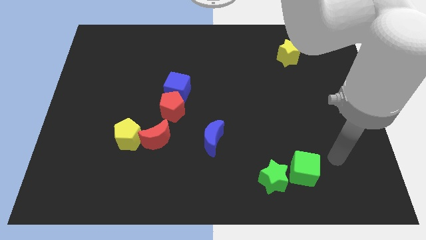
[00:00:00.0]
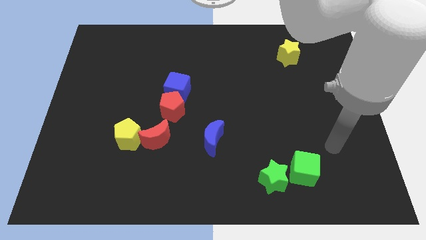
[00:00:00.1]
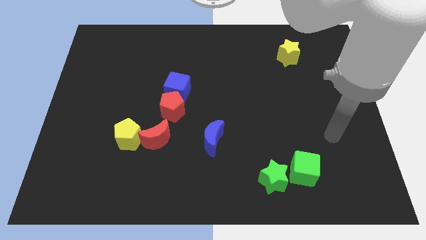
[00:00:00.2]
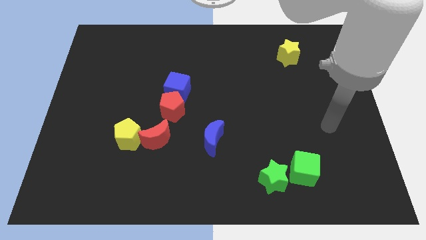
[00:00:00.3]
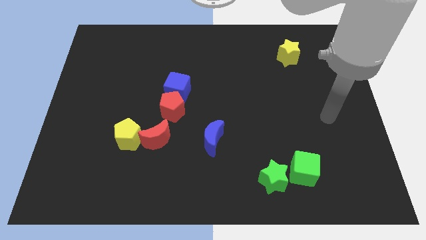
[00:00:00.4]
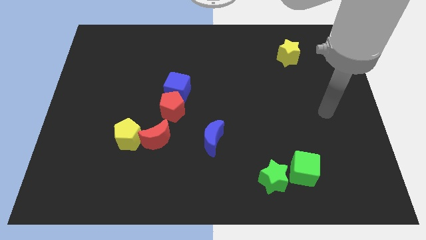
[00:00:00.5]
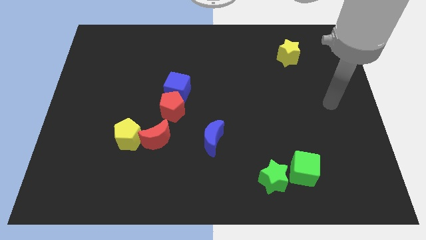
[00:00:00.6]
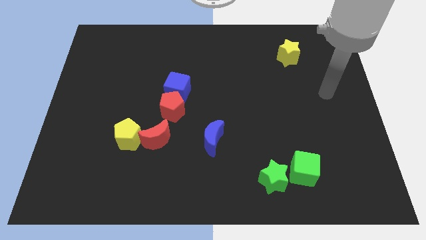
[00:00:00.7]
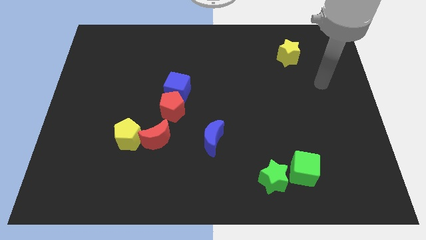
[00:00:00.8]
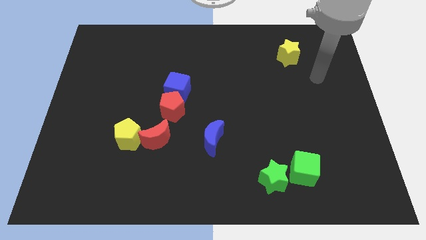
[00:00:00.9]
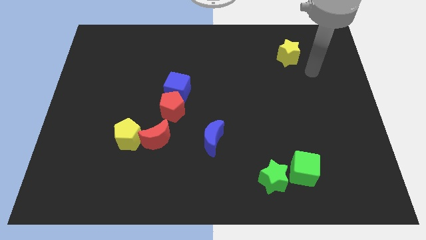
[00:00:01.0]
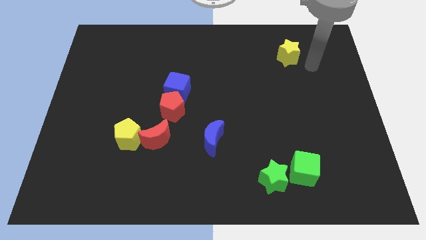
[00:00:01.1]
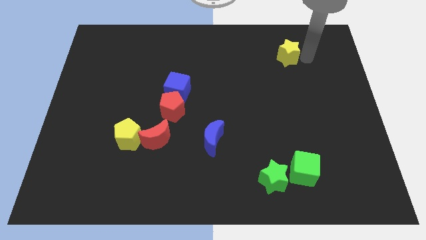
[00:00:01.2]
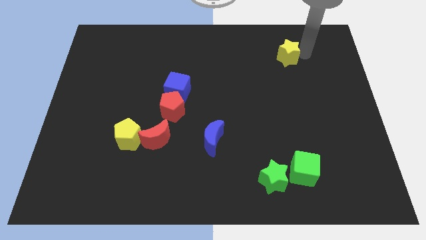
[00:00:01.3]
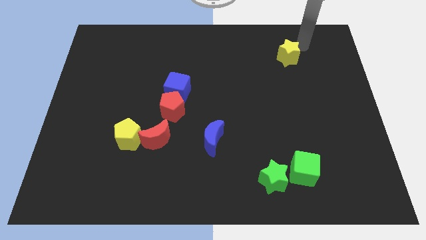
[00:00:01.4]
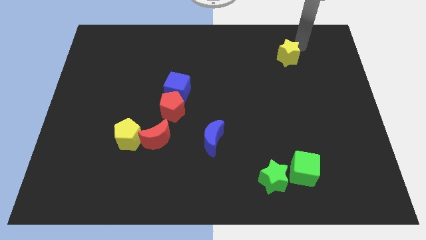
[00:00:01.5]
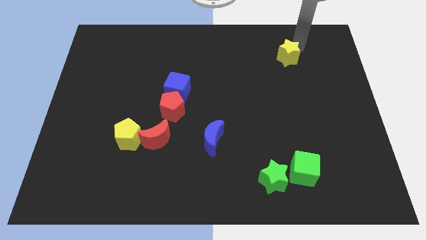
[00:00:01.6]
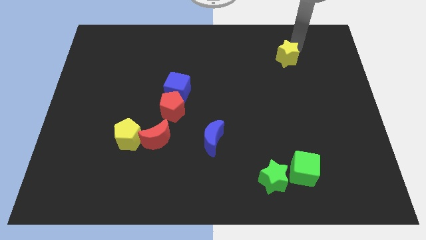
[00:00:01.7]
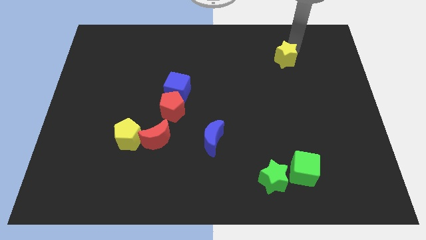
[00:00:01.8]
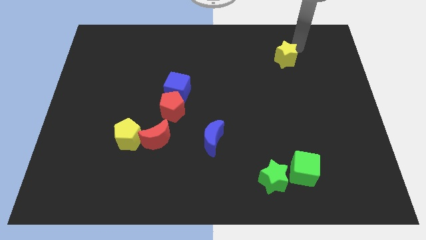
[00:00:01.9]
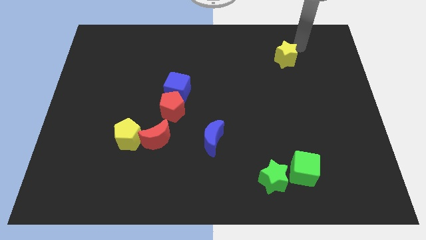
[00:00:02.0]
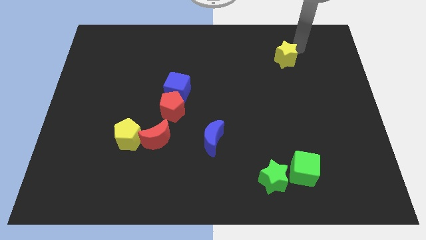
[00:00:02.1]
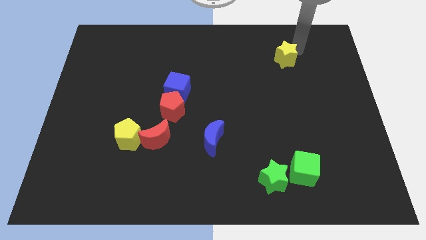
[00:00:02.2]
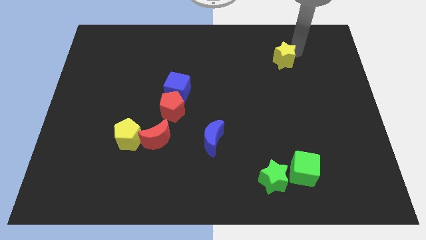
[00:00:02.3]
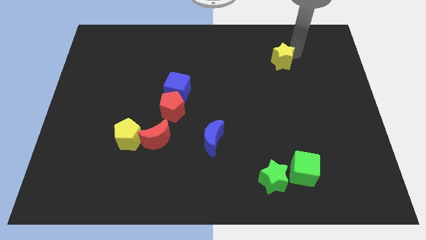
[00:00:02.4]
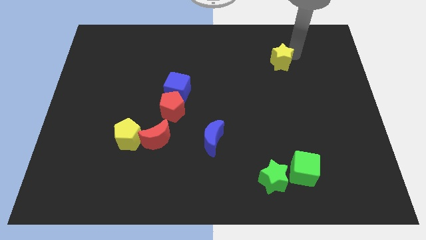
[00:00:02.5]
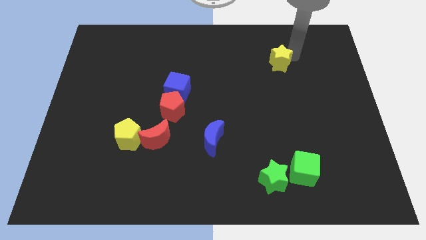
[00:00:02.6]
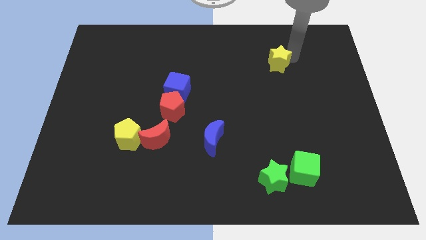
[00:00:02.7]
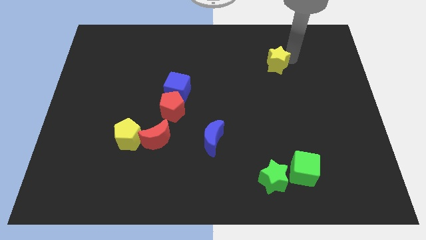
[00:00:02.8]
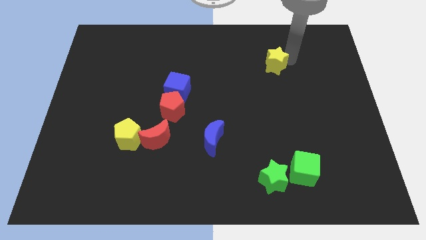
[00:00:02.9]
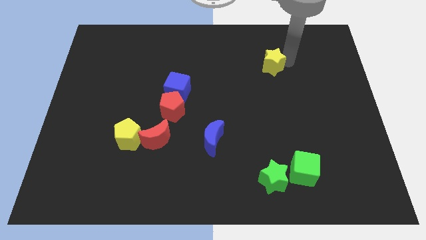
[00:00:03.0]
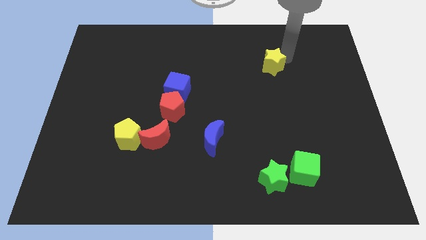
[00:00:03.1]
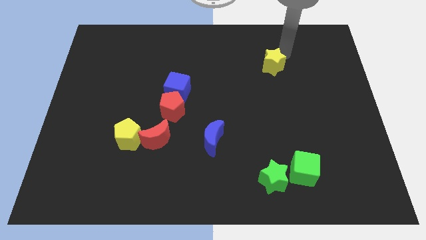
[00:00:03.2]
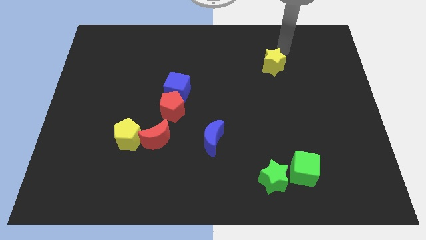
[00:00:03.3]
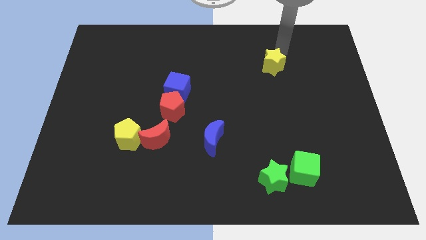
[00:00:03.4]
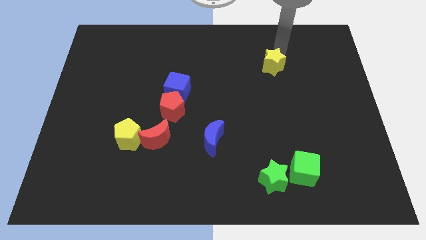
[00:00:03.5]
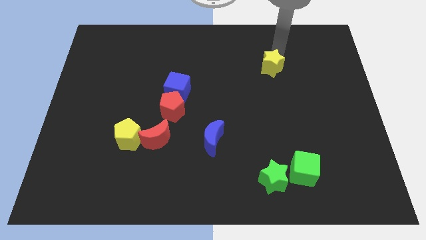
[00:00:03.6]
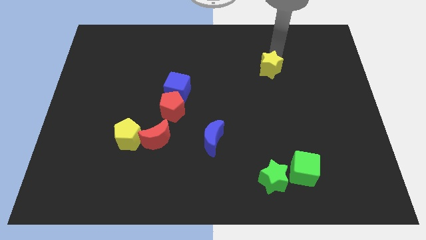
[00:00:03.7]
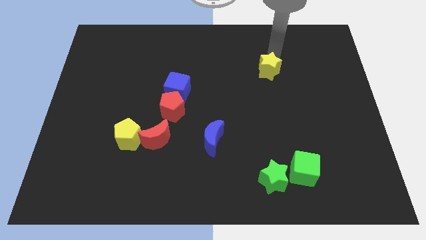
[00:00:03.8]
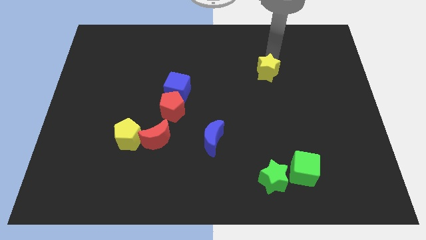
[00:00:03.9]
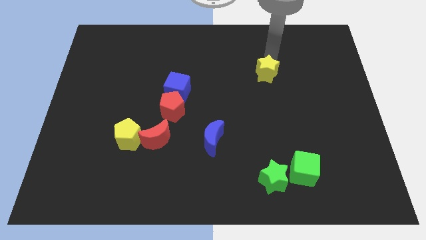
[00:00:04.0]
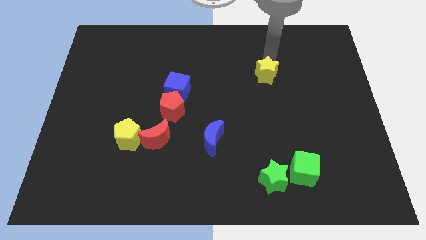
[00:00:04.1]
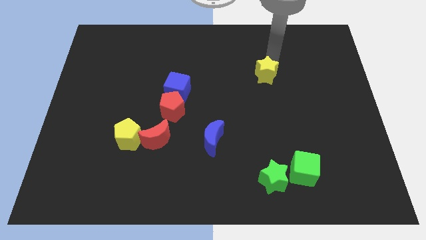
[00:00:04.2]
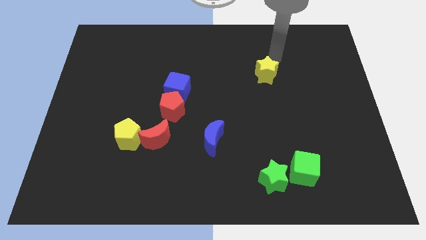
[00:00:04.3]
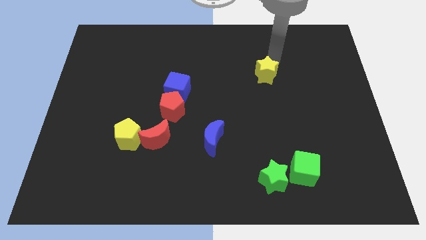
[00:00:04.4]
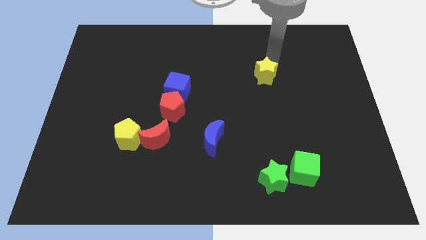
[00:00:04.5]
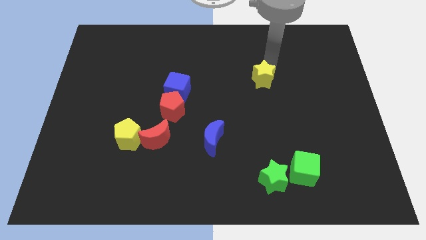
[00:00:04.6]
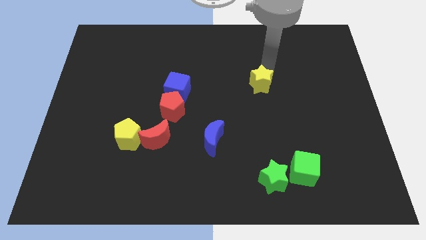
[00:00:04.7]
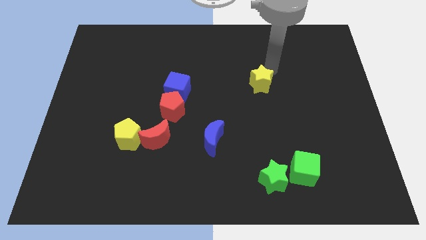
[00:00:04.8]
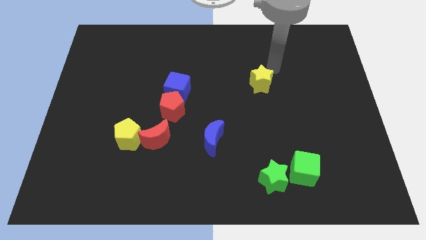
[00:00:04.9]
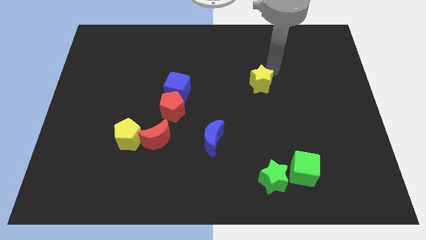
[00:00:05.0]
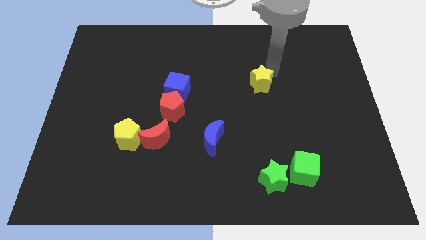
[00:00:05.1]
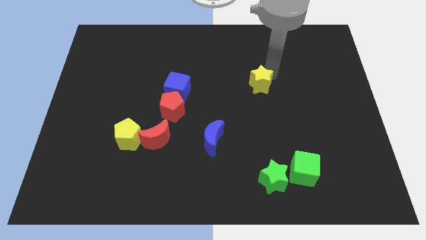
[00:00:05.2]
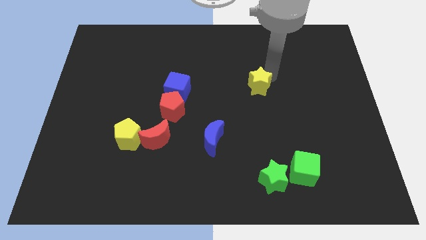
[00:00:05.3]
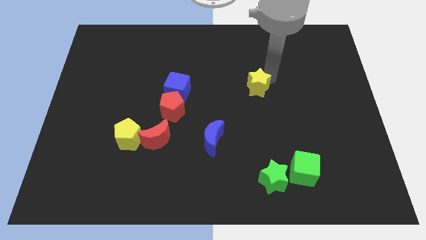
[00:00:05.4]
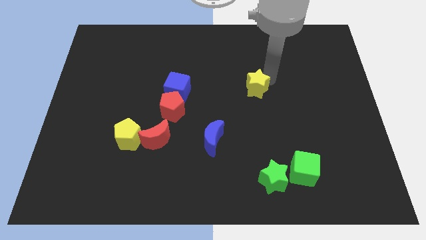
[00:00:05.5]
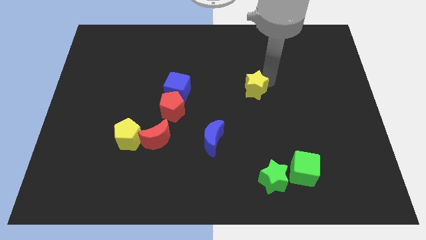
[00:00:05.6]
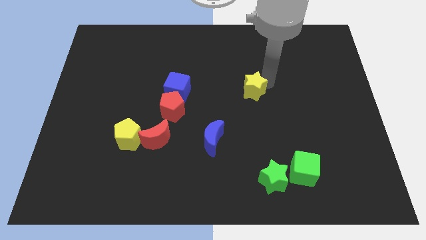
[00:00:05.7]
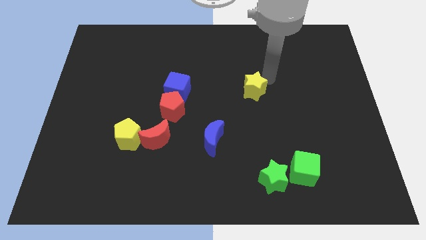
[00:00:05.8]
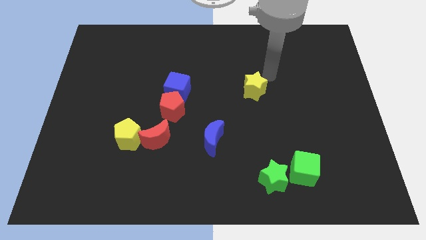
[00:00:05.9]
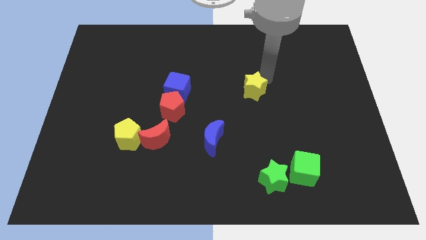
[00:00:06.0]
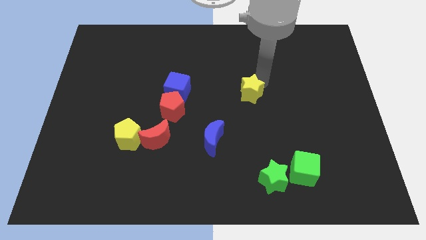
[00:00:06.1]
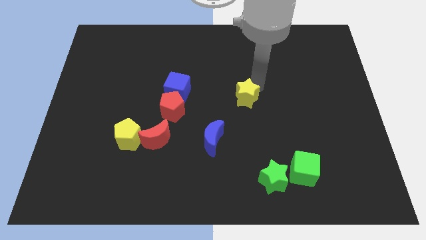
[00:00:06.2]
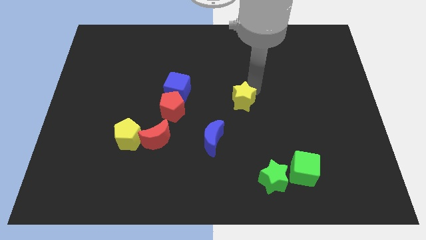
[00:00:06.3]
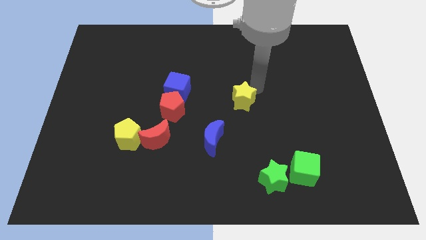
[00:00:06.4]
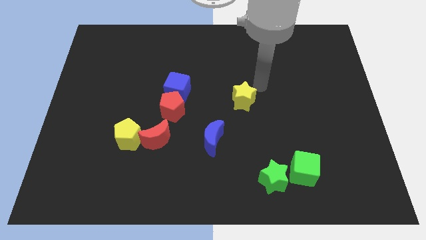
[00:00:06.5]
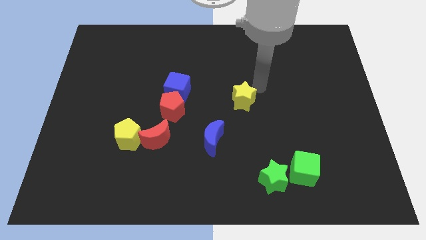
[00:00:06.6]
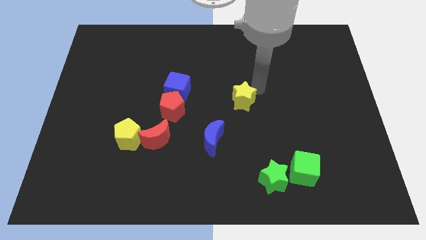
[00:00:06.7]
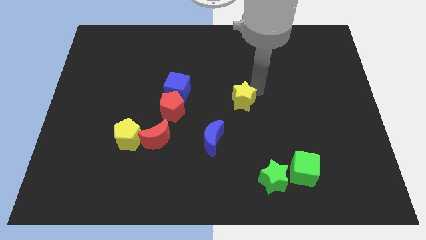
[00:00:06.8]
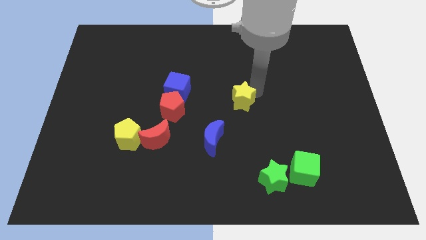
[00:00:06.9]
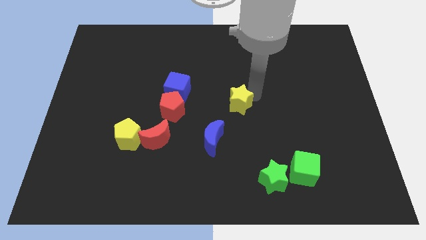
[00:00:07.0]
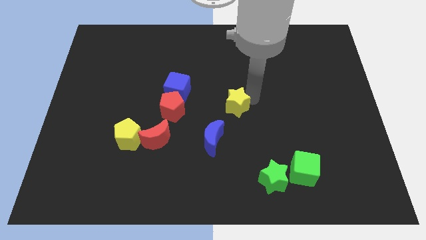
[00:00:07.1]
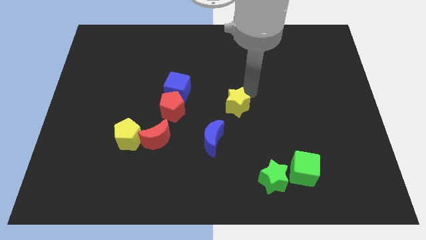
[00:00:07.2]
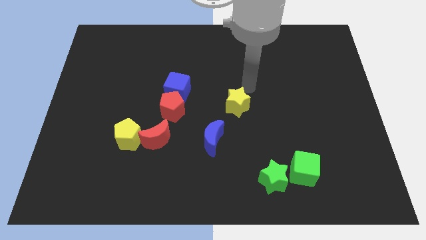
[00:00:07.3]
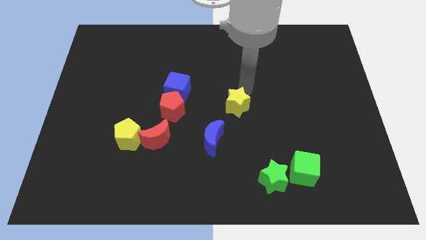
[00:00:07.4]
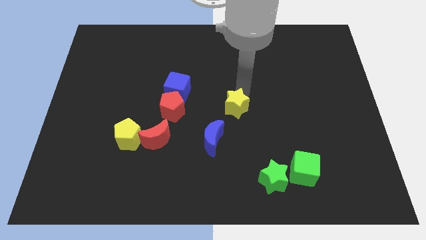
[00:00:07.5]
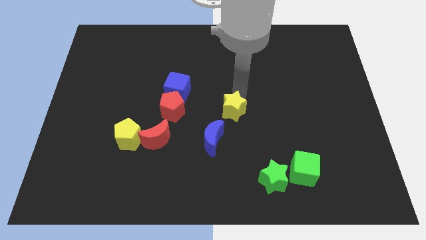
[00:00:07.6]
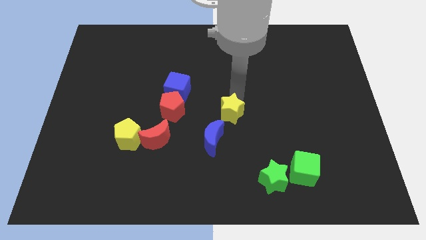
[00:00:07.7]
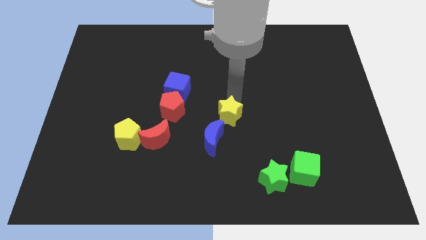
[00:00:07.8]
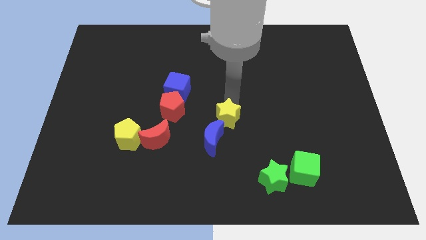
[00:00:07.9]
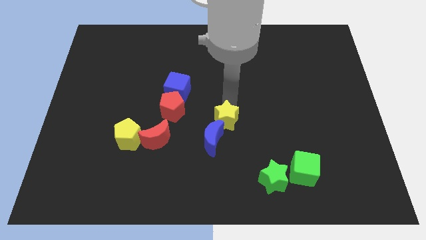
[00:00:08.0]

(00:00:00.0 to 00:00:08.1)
push the yellow star to the blue moon
